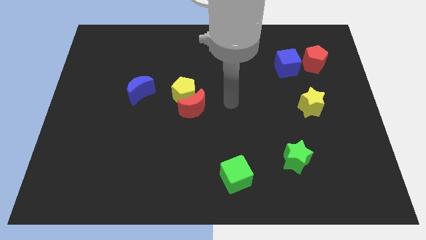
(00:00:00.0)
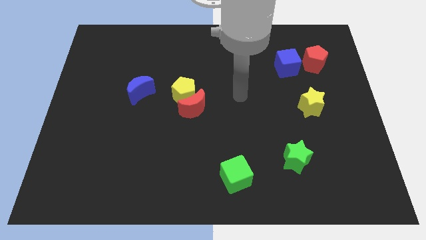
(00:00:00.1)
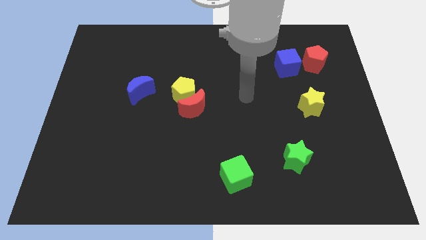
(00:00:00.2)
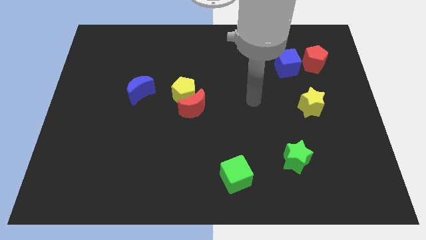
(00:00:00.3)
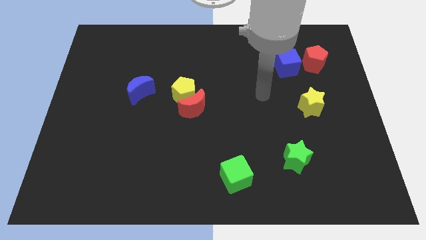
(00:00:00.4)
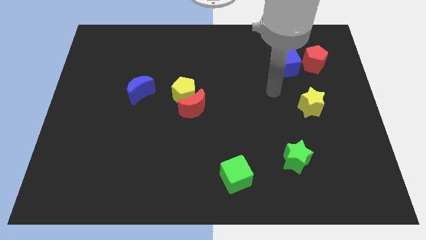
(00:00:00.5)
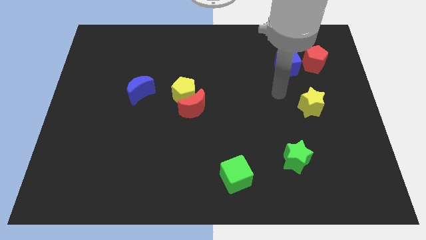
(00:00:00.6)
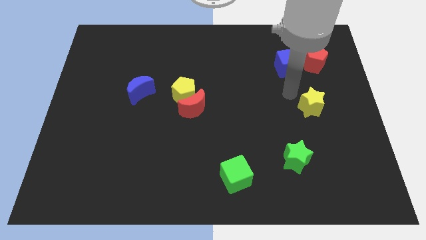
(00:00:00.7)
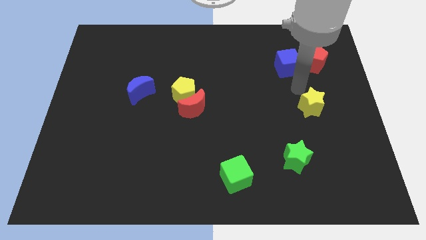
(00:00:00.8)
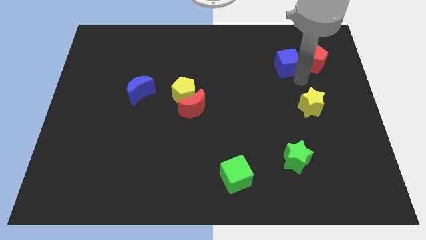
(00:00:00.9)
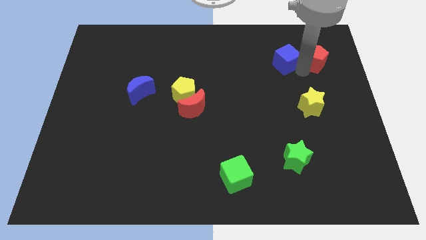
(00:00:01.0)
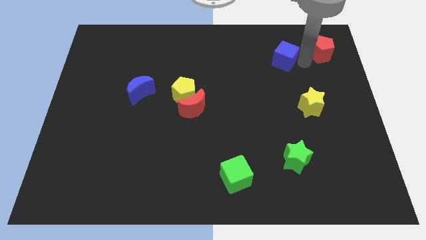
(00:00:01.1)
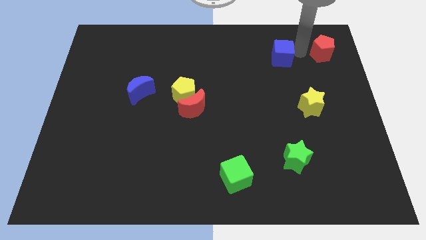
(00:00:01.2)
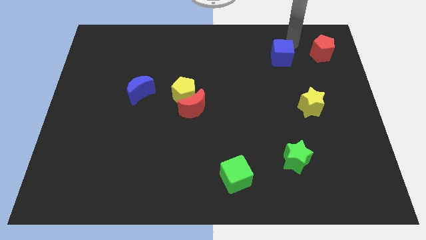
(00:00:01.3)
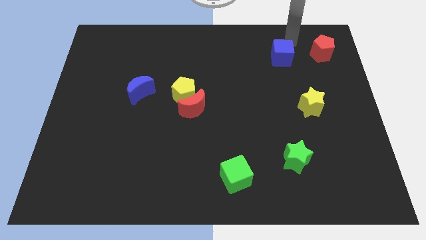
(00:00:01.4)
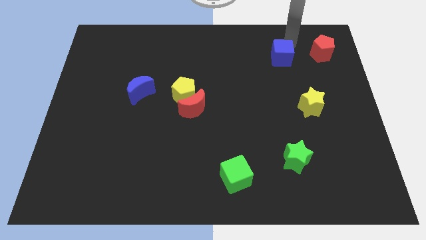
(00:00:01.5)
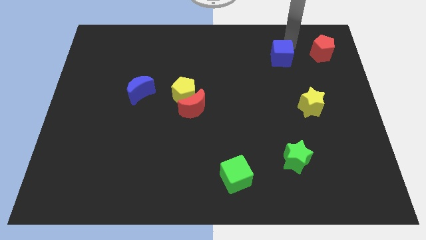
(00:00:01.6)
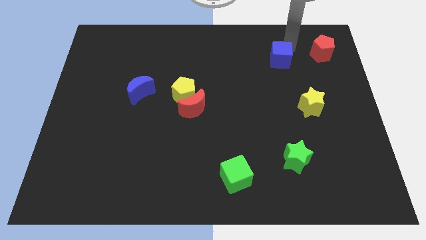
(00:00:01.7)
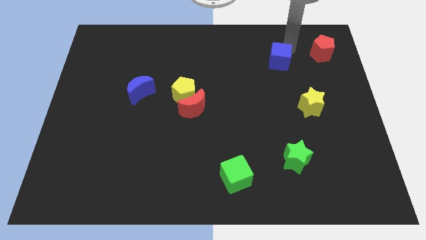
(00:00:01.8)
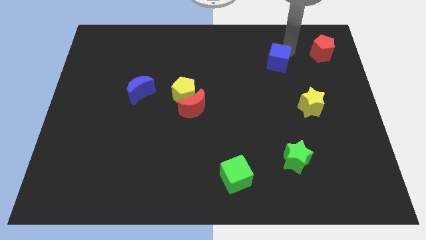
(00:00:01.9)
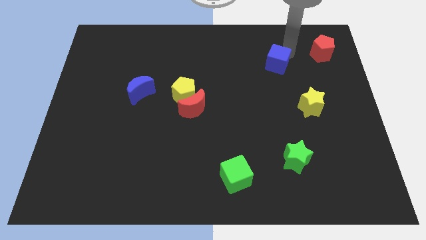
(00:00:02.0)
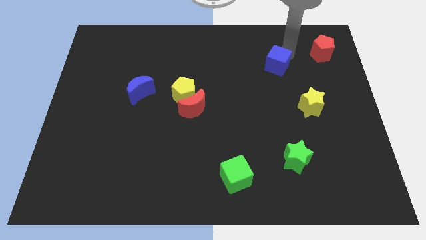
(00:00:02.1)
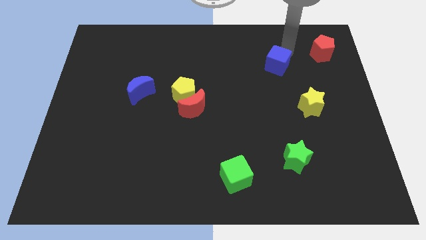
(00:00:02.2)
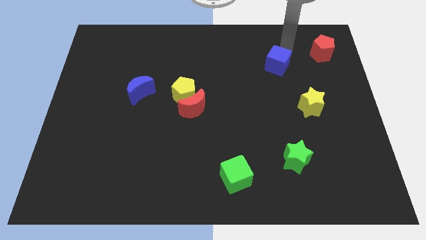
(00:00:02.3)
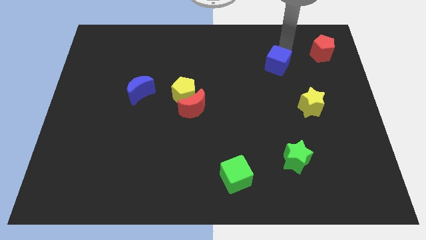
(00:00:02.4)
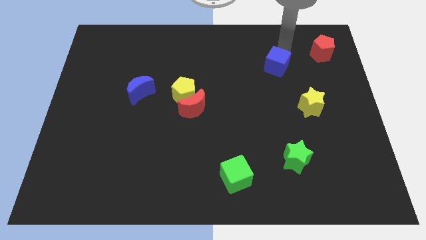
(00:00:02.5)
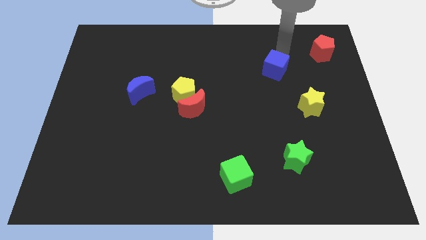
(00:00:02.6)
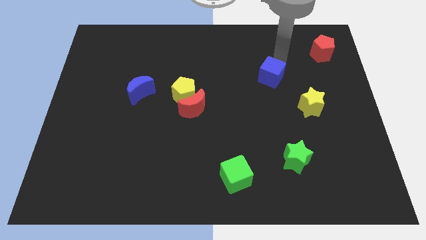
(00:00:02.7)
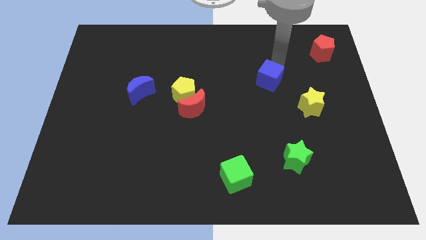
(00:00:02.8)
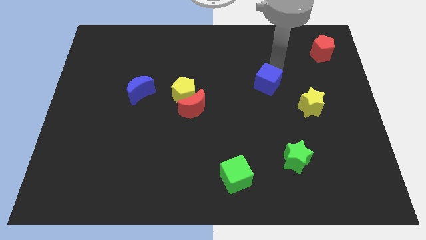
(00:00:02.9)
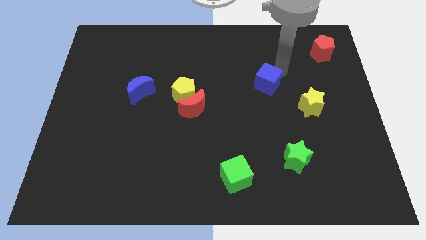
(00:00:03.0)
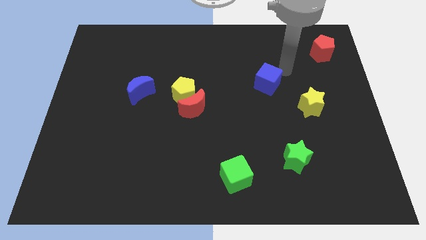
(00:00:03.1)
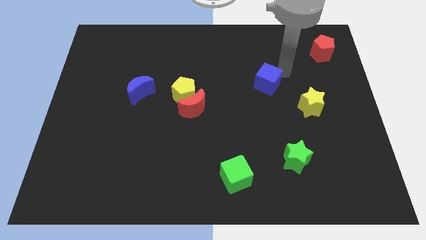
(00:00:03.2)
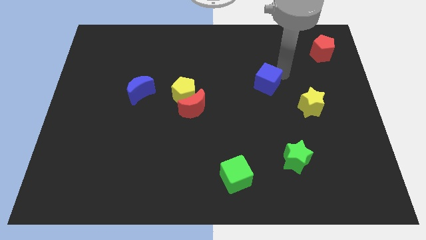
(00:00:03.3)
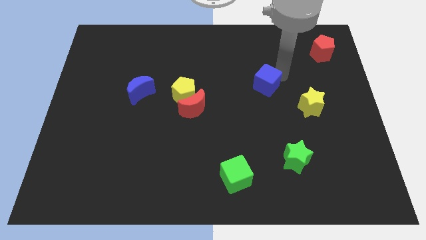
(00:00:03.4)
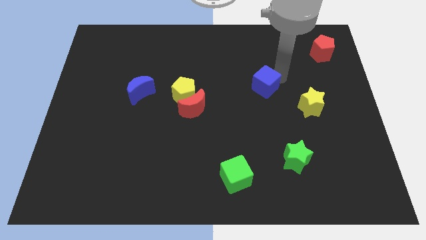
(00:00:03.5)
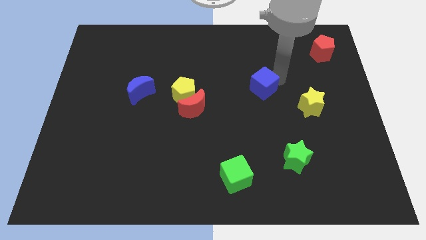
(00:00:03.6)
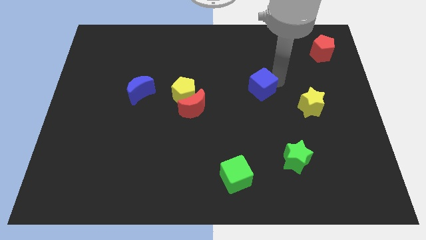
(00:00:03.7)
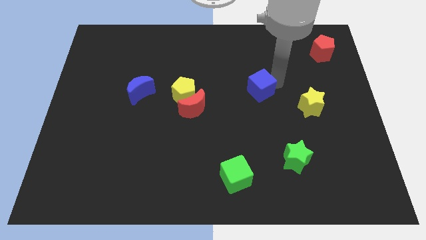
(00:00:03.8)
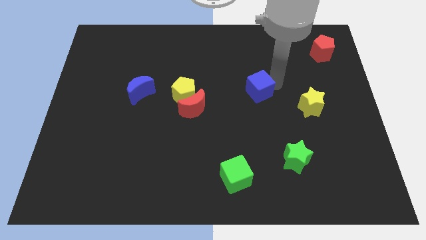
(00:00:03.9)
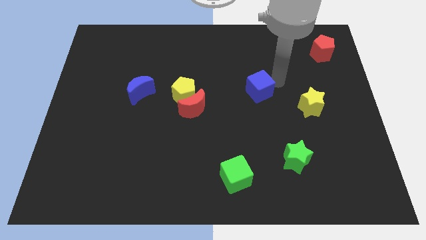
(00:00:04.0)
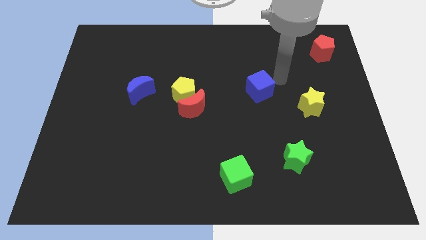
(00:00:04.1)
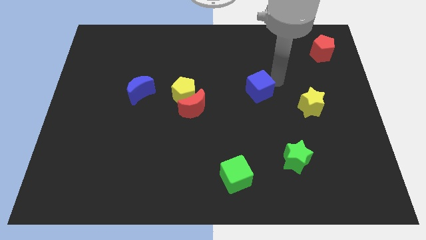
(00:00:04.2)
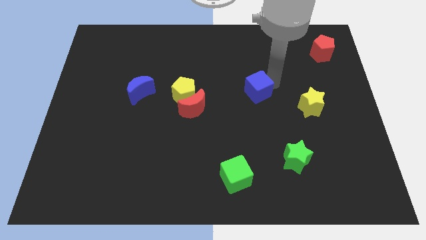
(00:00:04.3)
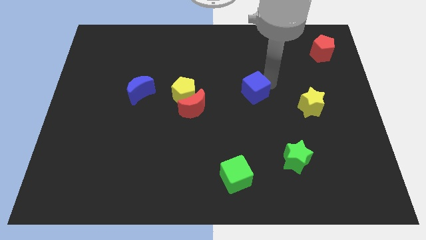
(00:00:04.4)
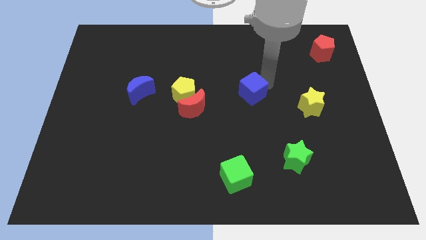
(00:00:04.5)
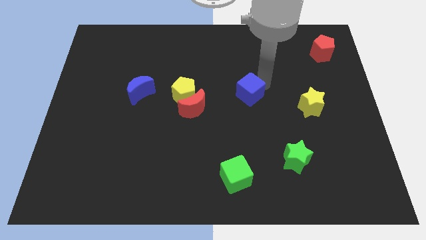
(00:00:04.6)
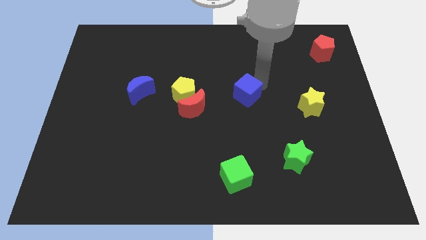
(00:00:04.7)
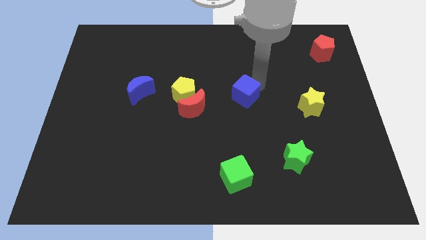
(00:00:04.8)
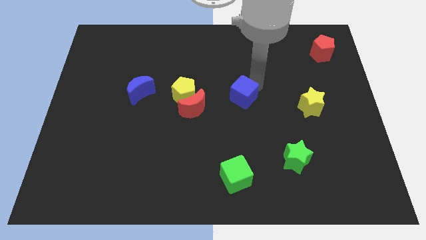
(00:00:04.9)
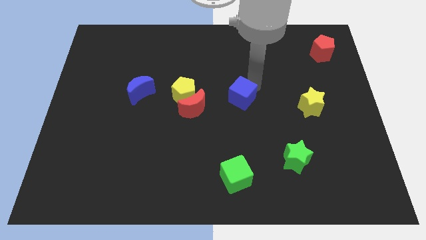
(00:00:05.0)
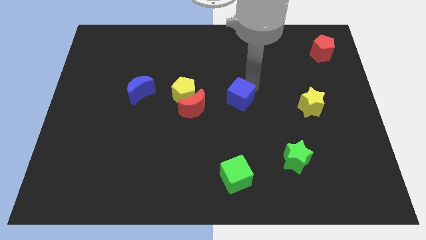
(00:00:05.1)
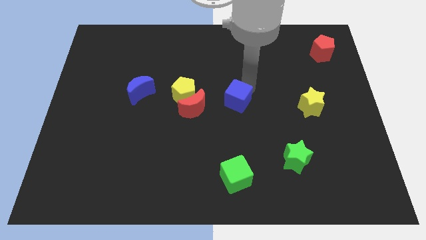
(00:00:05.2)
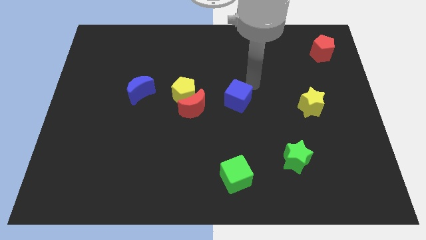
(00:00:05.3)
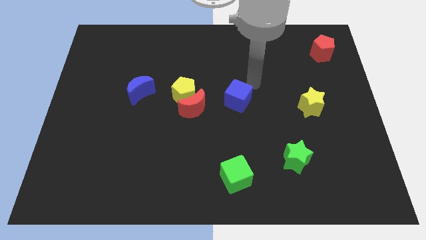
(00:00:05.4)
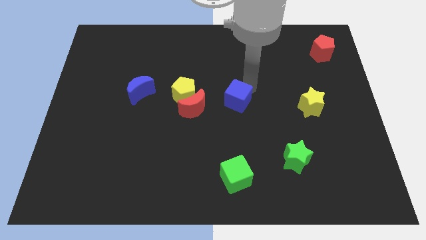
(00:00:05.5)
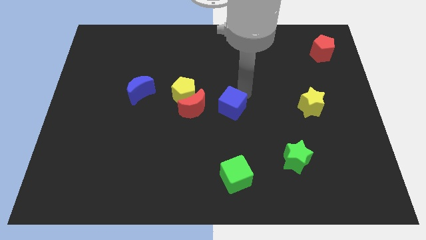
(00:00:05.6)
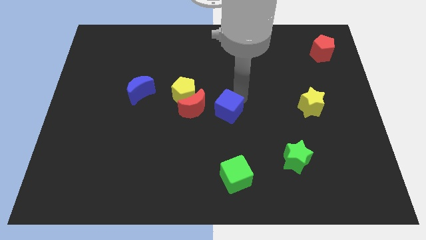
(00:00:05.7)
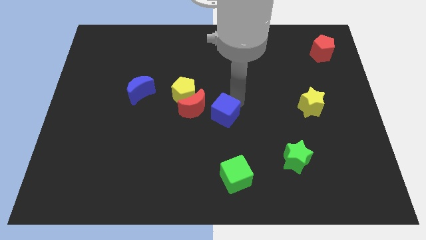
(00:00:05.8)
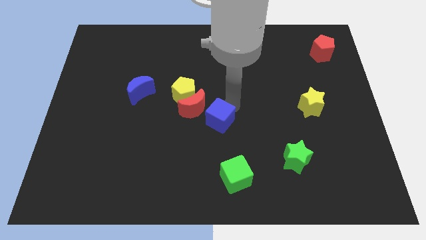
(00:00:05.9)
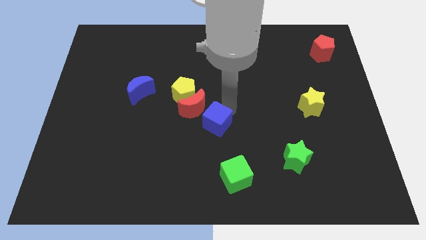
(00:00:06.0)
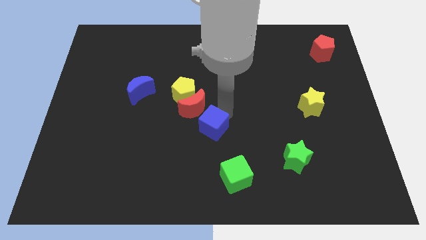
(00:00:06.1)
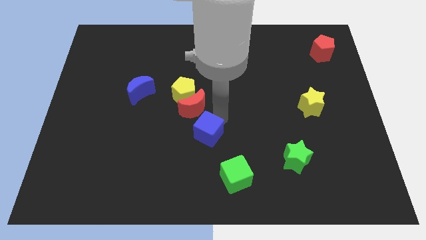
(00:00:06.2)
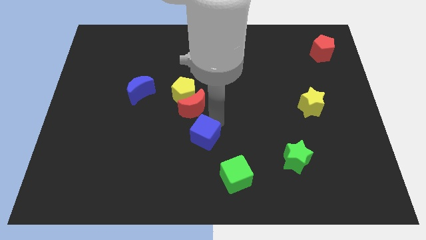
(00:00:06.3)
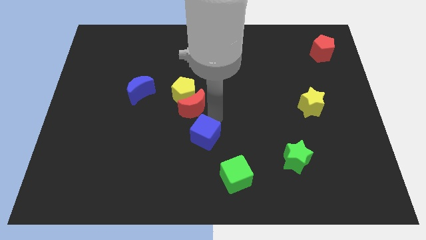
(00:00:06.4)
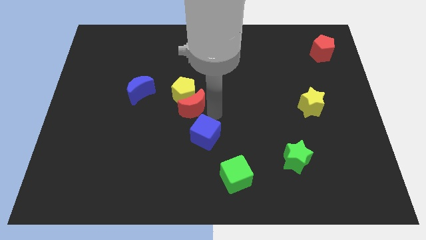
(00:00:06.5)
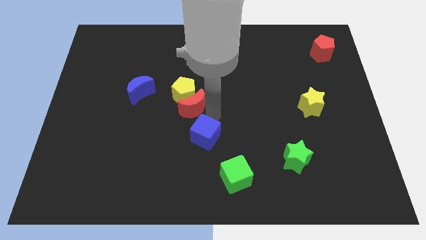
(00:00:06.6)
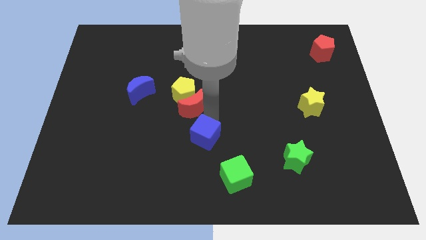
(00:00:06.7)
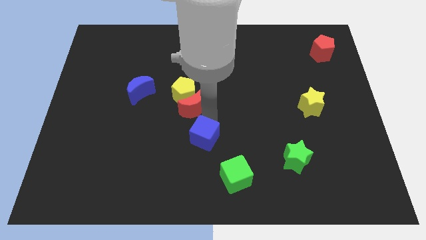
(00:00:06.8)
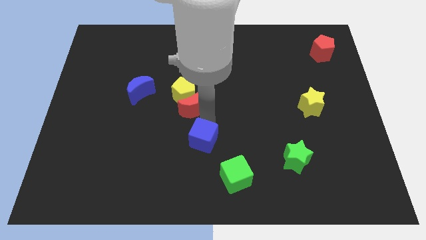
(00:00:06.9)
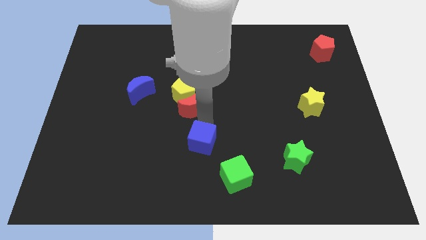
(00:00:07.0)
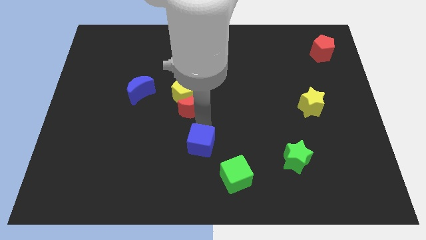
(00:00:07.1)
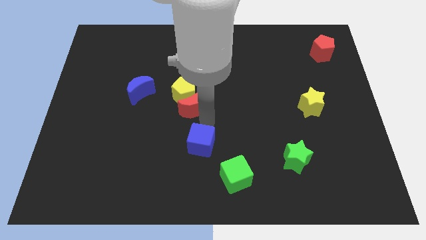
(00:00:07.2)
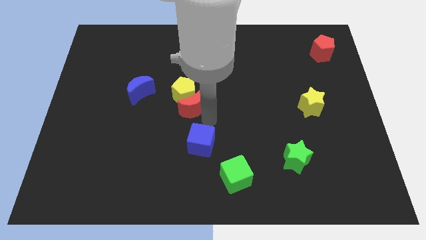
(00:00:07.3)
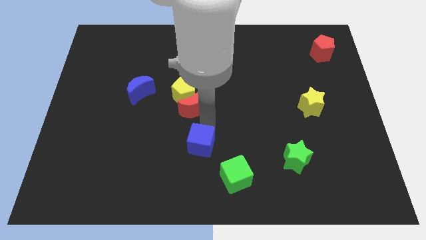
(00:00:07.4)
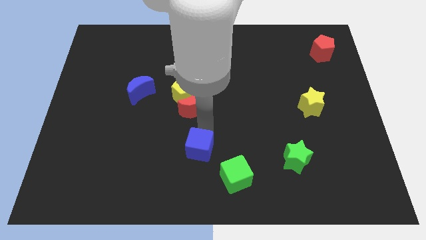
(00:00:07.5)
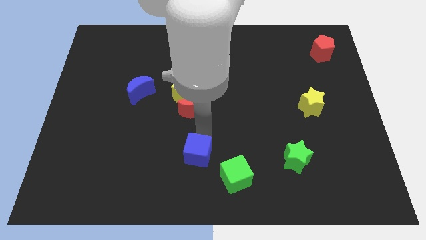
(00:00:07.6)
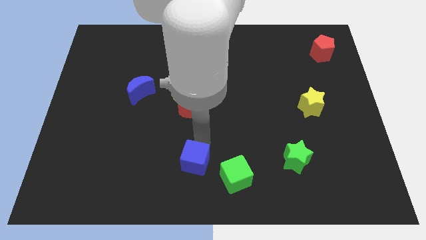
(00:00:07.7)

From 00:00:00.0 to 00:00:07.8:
put the blue cube to the left side of the green cube
